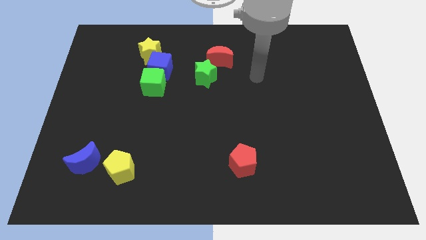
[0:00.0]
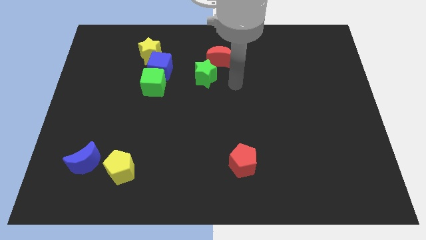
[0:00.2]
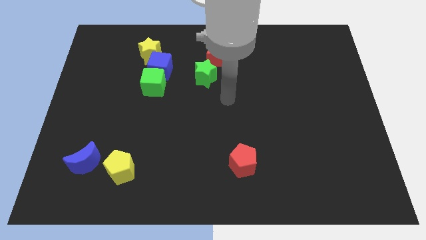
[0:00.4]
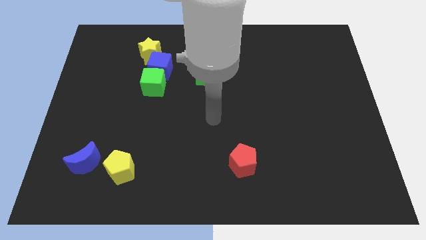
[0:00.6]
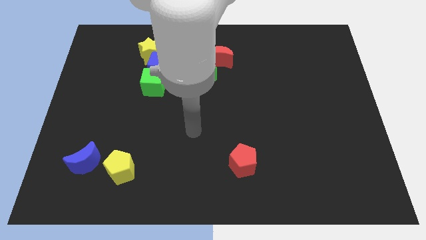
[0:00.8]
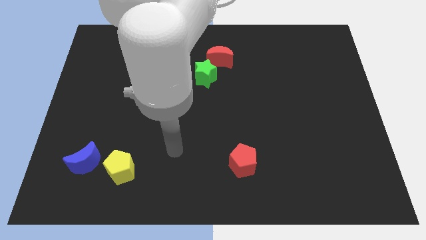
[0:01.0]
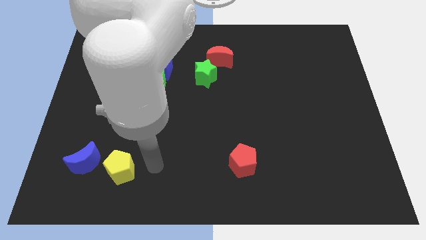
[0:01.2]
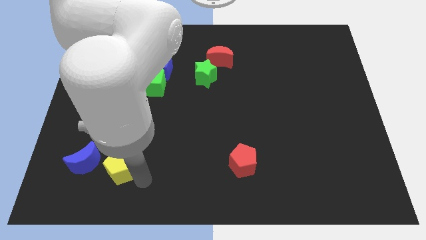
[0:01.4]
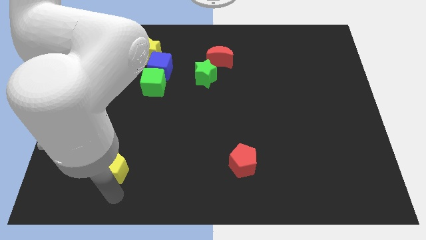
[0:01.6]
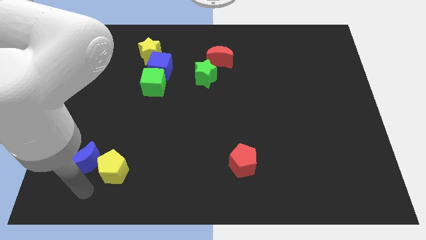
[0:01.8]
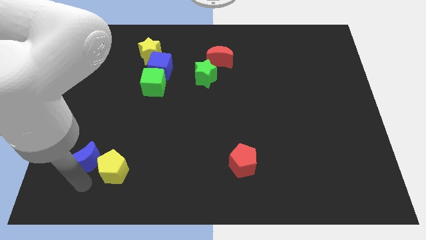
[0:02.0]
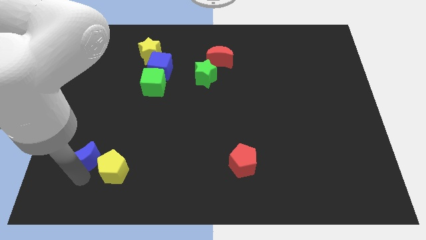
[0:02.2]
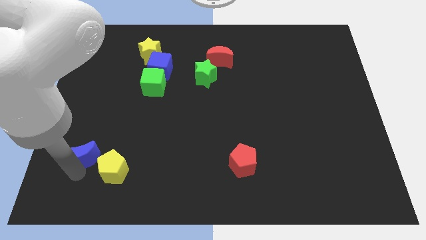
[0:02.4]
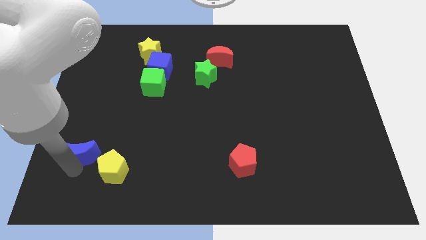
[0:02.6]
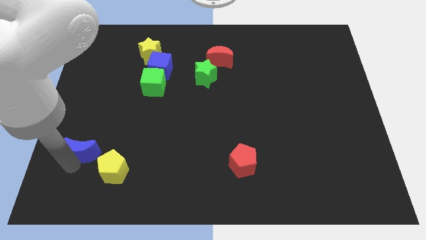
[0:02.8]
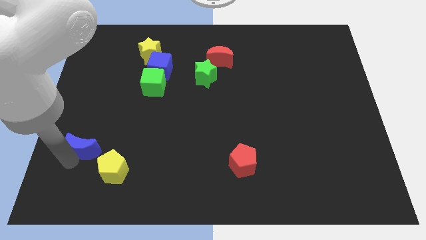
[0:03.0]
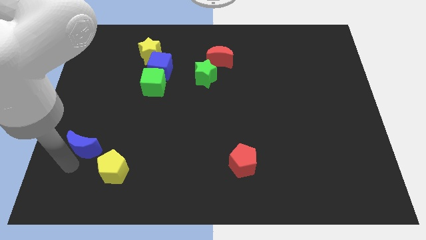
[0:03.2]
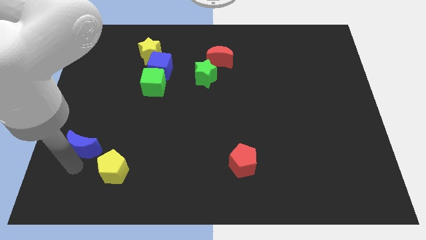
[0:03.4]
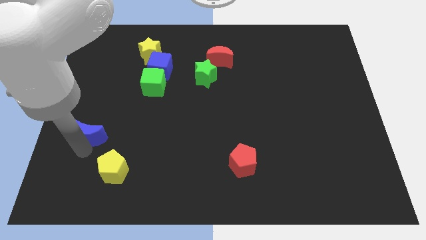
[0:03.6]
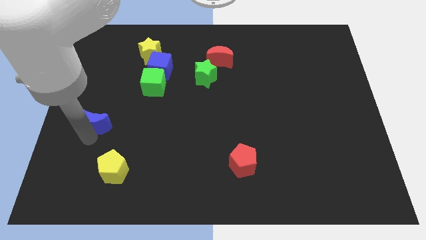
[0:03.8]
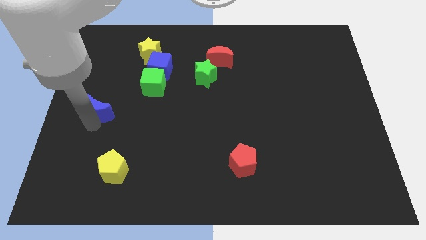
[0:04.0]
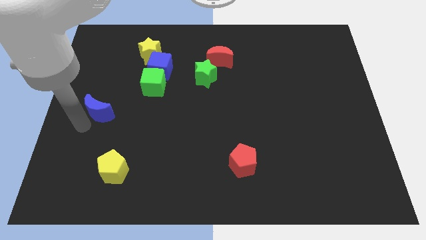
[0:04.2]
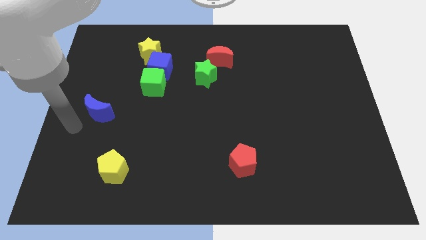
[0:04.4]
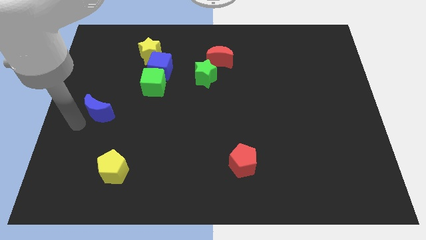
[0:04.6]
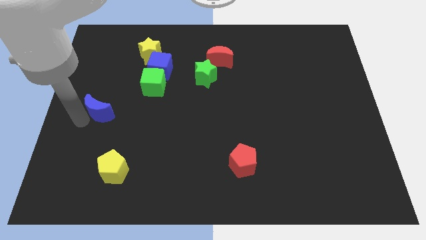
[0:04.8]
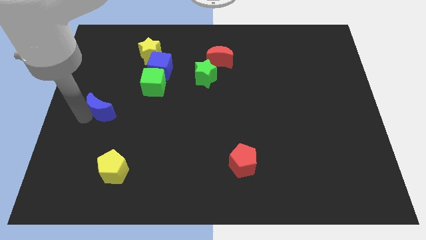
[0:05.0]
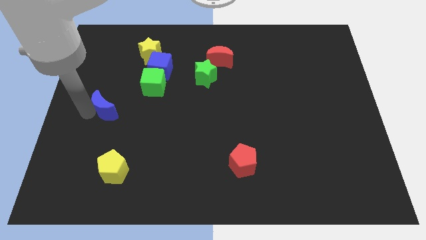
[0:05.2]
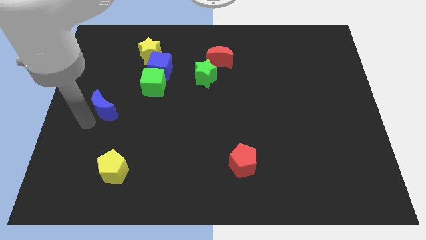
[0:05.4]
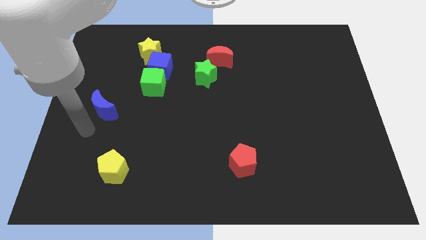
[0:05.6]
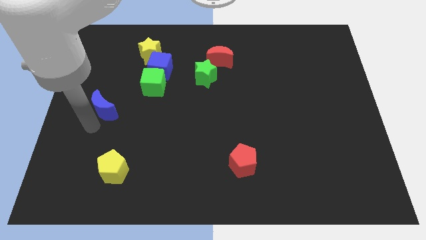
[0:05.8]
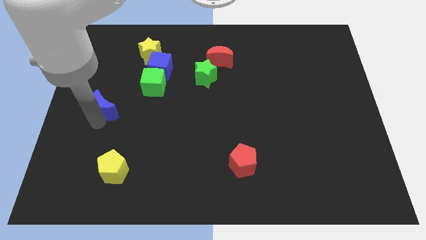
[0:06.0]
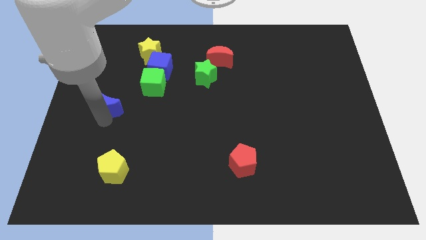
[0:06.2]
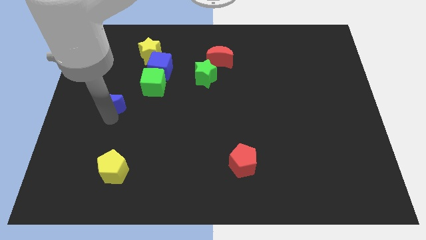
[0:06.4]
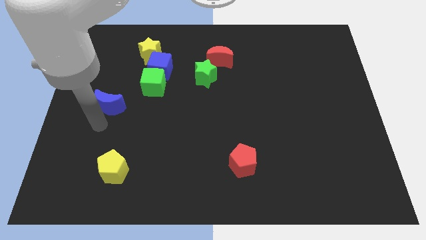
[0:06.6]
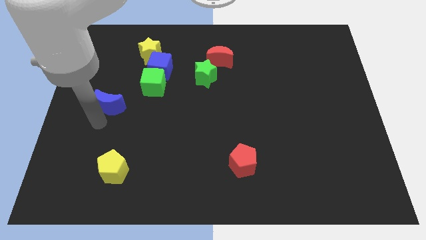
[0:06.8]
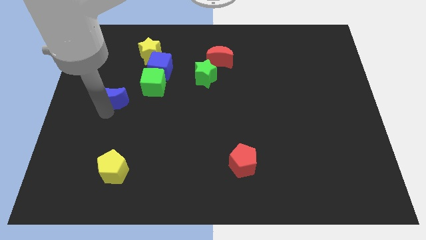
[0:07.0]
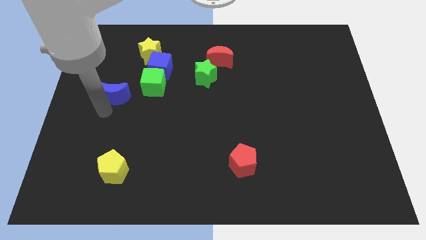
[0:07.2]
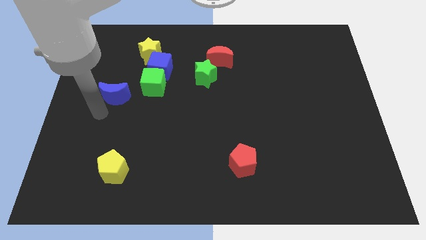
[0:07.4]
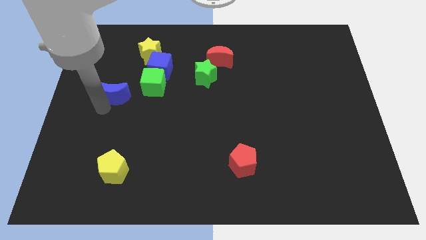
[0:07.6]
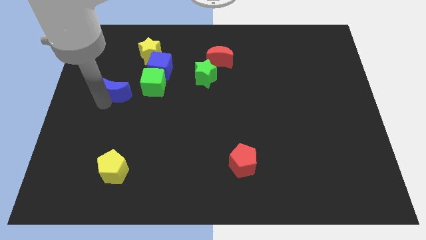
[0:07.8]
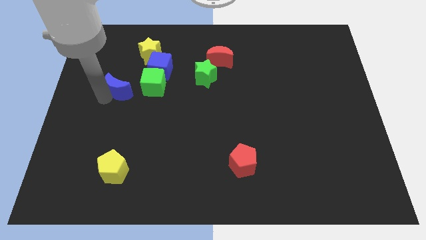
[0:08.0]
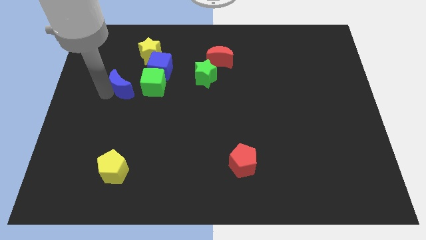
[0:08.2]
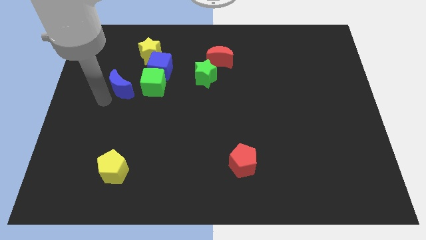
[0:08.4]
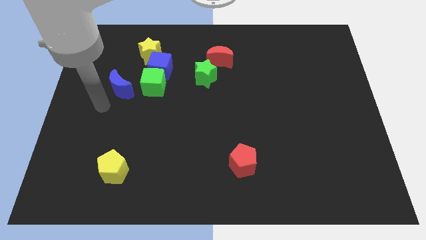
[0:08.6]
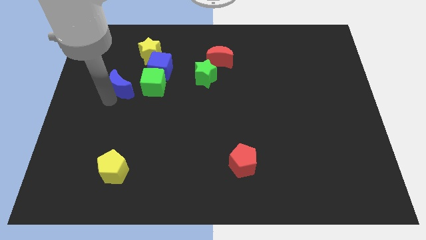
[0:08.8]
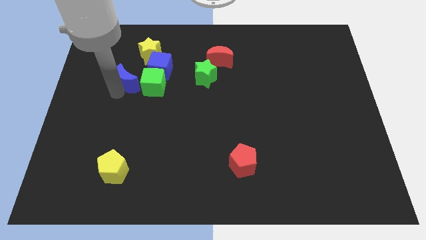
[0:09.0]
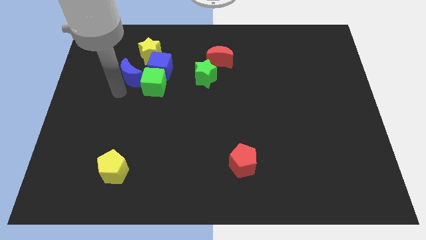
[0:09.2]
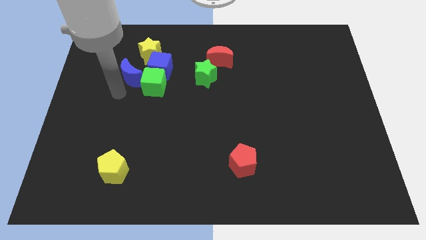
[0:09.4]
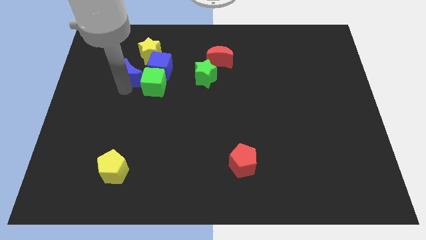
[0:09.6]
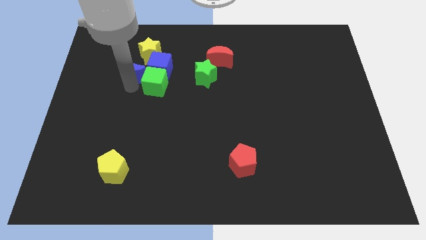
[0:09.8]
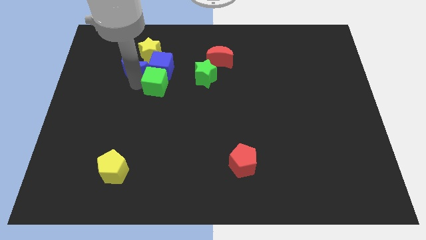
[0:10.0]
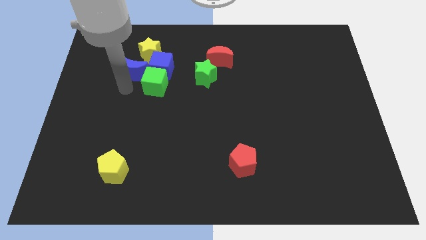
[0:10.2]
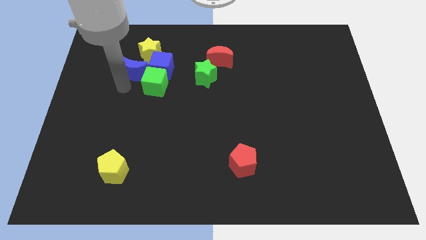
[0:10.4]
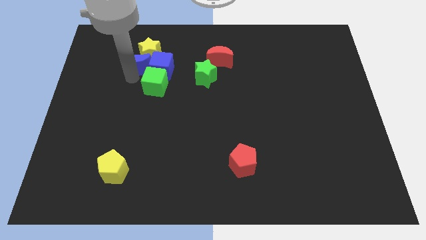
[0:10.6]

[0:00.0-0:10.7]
slide the blue moon next to the yellow star

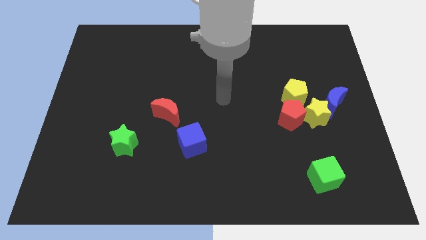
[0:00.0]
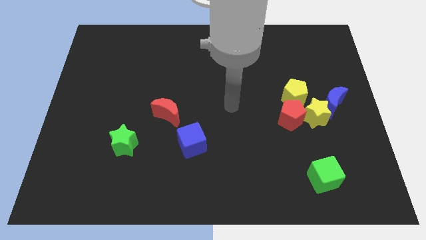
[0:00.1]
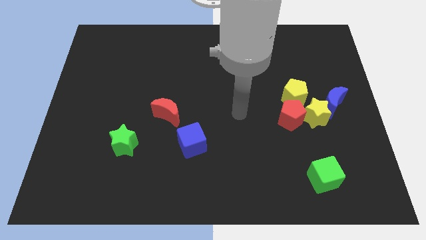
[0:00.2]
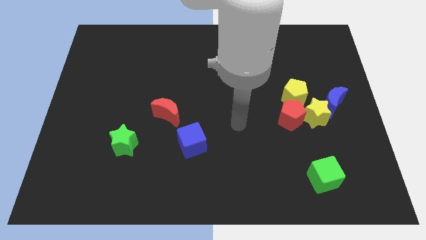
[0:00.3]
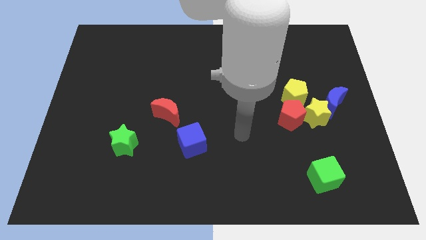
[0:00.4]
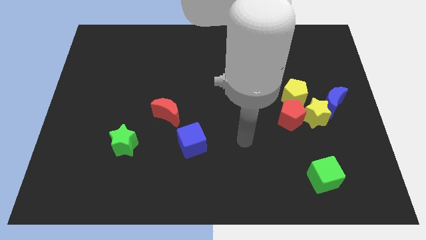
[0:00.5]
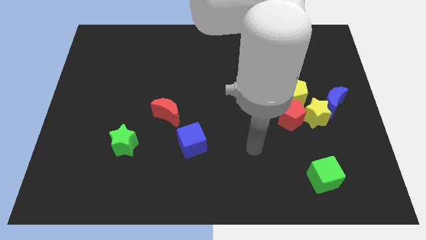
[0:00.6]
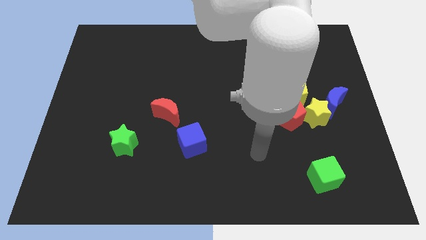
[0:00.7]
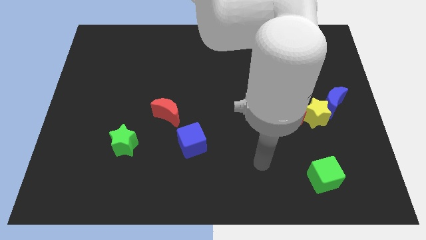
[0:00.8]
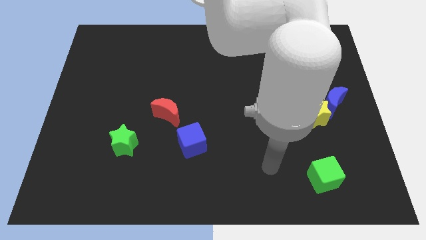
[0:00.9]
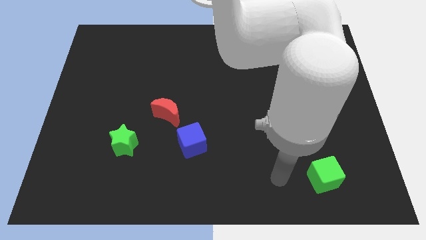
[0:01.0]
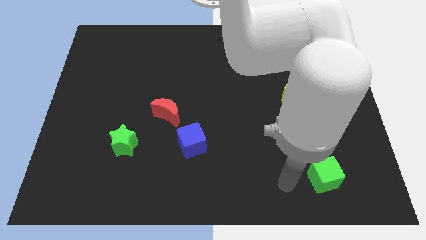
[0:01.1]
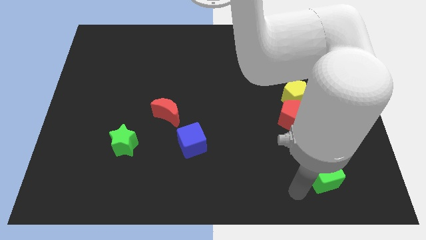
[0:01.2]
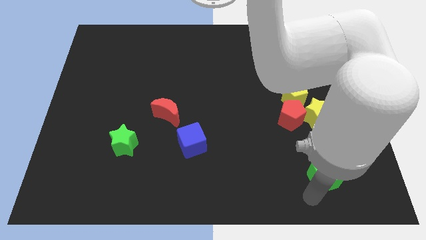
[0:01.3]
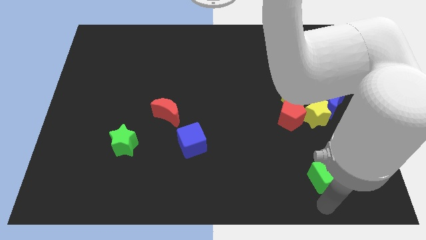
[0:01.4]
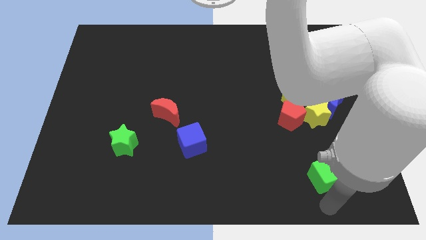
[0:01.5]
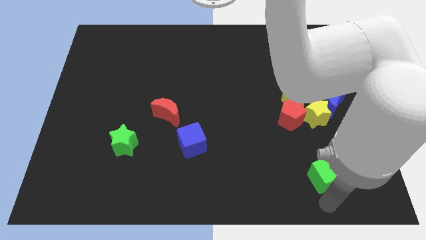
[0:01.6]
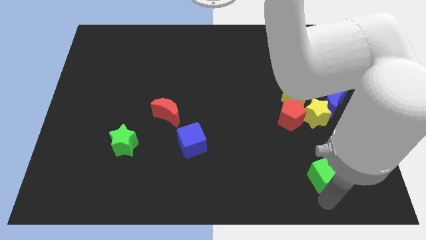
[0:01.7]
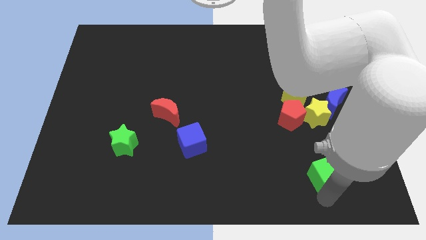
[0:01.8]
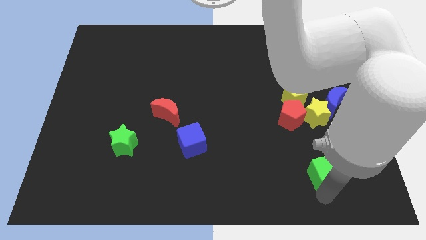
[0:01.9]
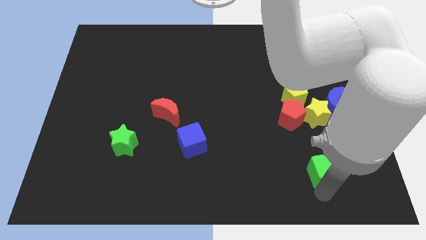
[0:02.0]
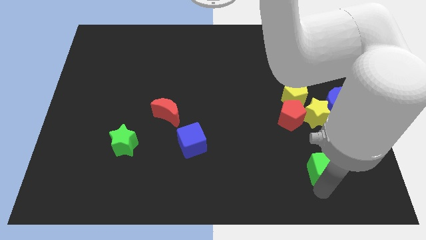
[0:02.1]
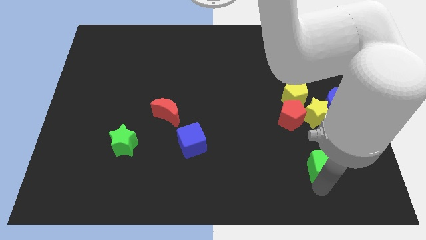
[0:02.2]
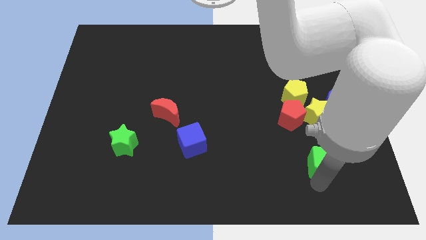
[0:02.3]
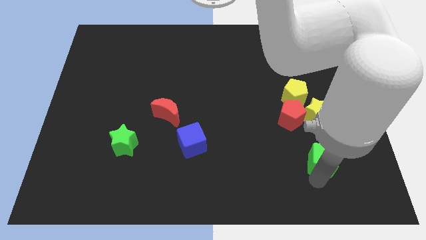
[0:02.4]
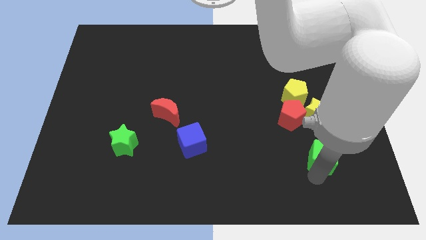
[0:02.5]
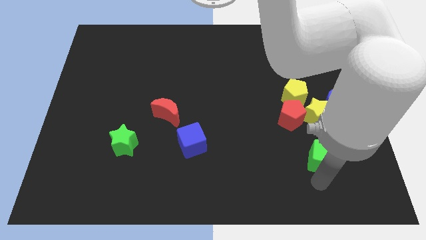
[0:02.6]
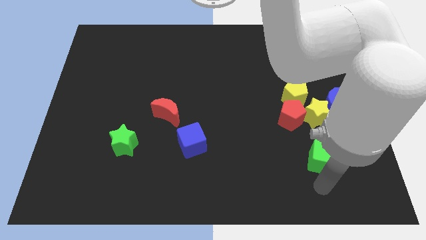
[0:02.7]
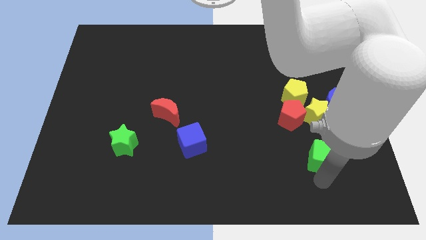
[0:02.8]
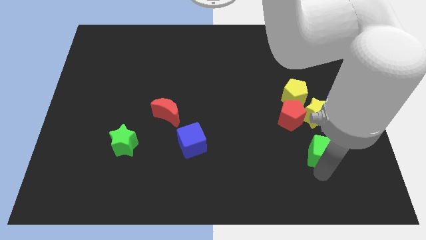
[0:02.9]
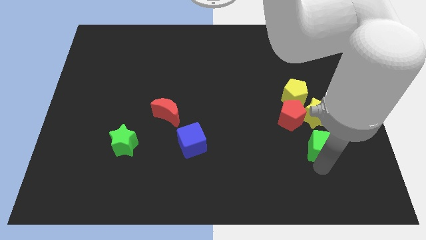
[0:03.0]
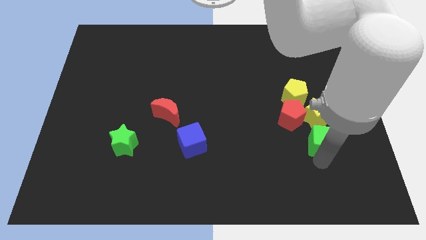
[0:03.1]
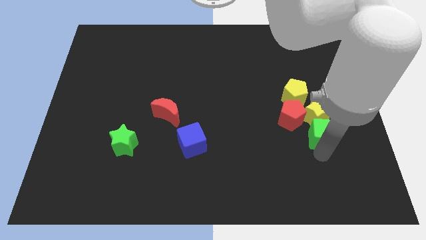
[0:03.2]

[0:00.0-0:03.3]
move the green cube to the yellow star
